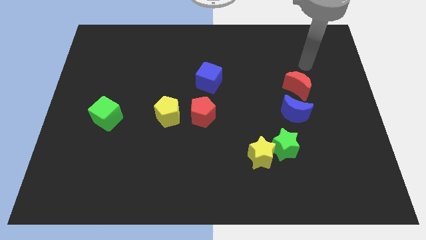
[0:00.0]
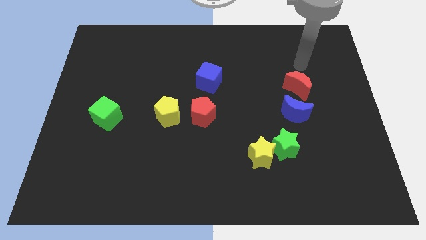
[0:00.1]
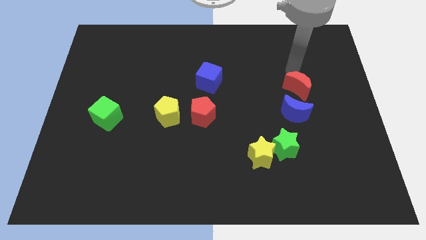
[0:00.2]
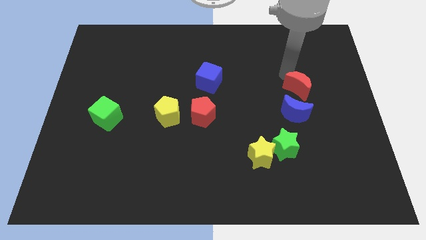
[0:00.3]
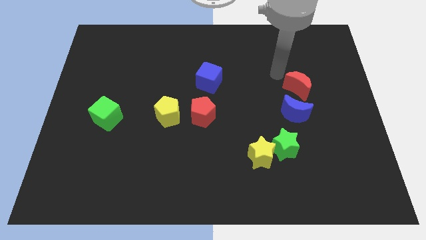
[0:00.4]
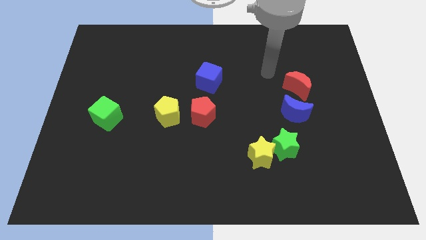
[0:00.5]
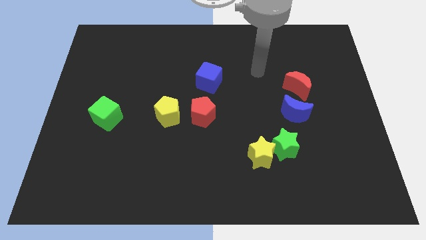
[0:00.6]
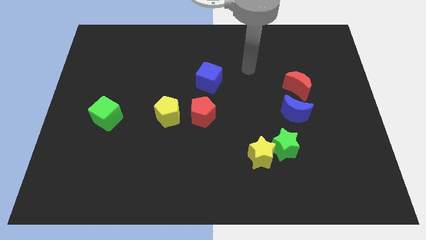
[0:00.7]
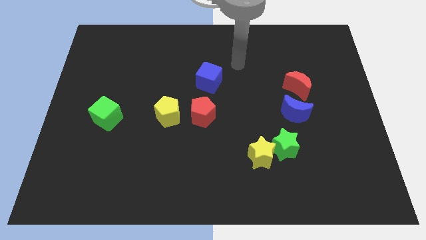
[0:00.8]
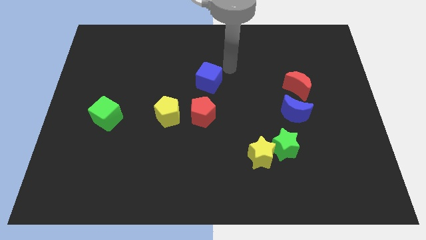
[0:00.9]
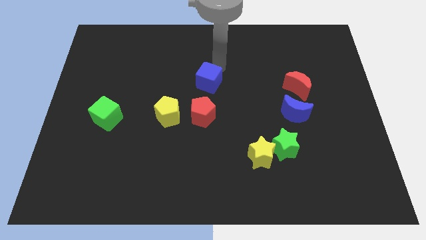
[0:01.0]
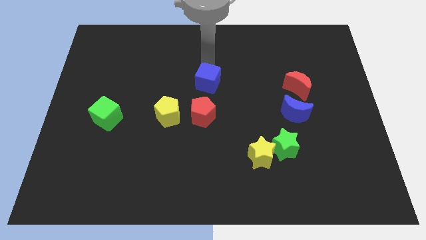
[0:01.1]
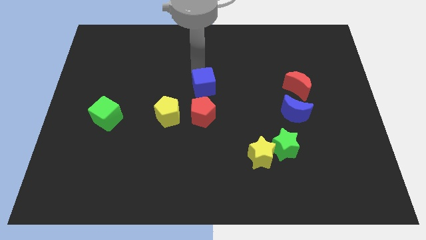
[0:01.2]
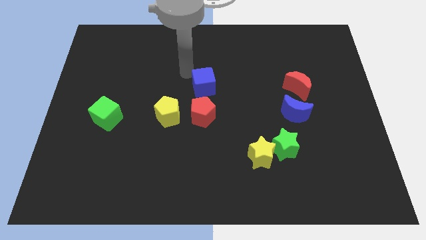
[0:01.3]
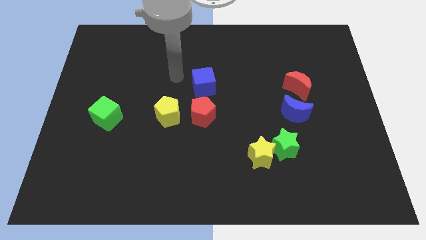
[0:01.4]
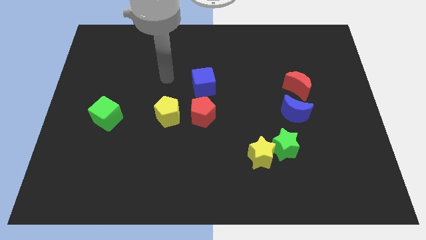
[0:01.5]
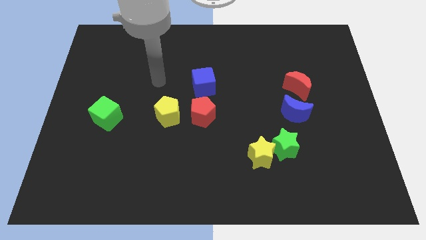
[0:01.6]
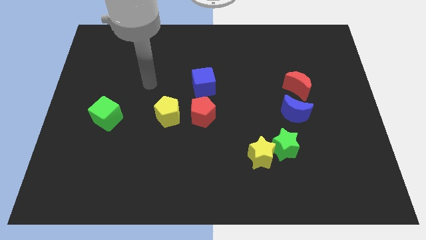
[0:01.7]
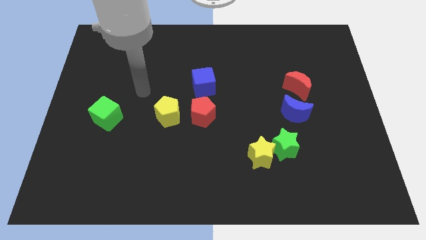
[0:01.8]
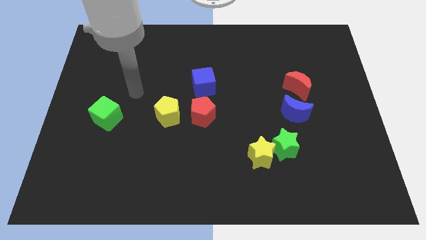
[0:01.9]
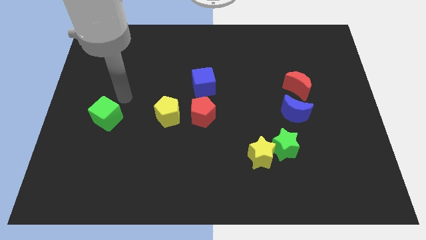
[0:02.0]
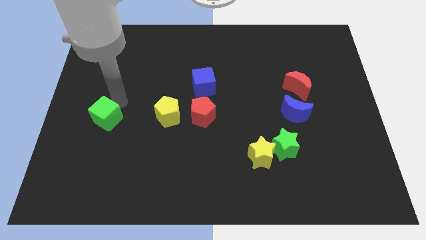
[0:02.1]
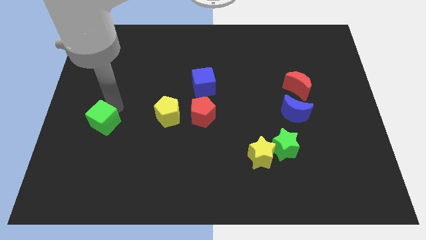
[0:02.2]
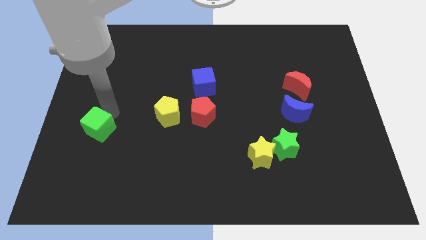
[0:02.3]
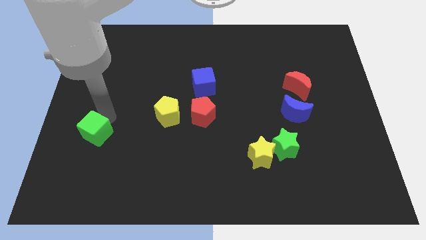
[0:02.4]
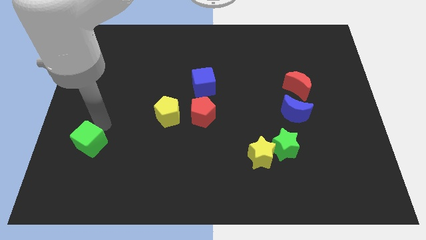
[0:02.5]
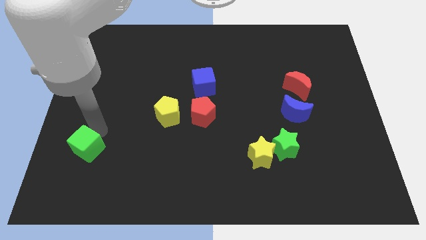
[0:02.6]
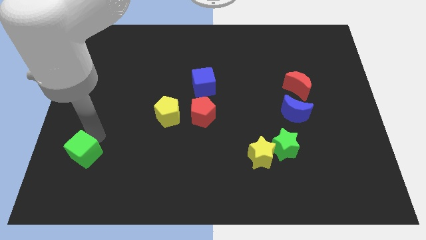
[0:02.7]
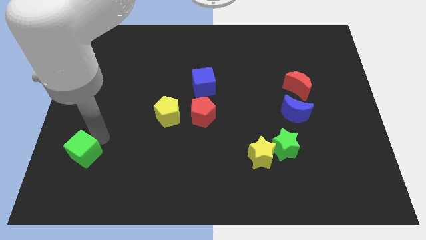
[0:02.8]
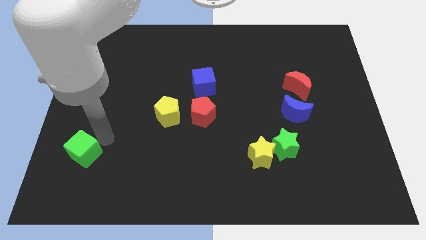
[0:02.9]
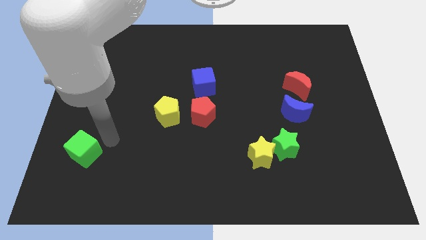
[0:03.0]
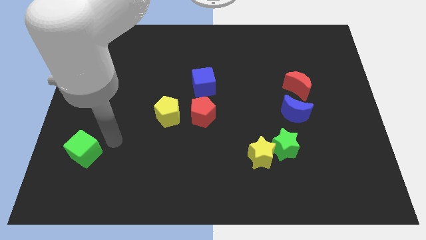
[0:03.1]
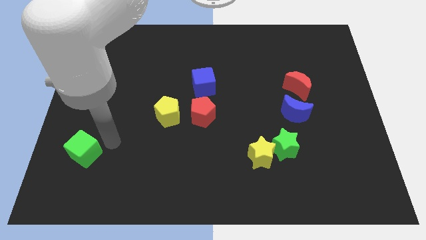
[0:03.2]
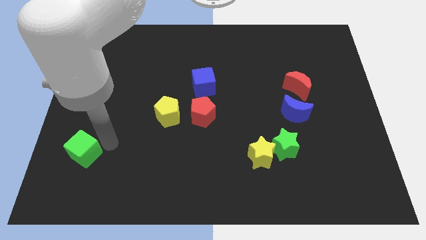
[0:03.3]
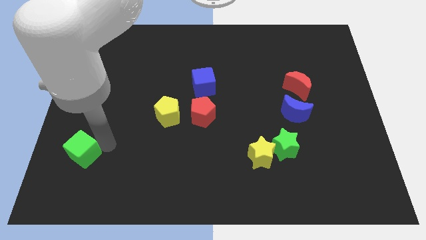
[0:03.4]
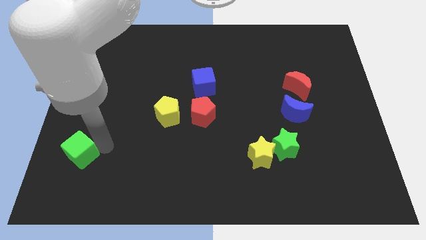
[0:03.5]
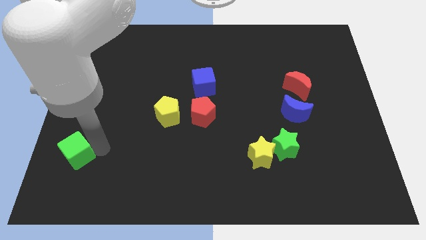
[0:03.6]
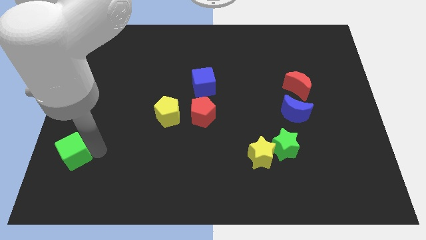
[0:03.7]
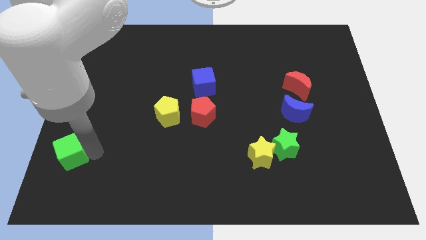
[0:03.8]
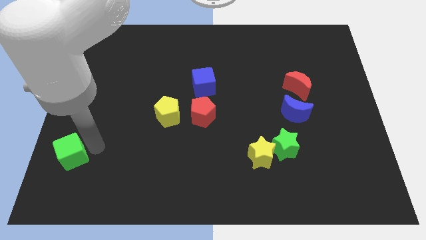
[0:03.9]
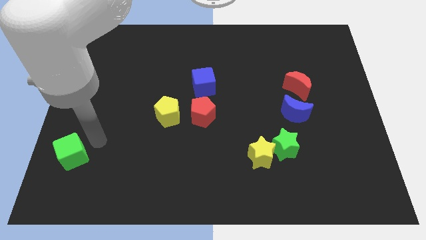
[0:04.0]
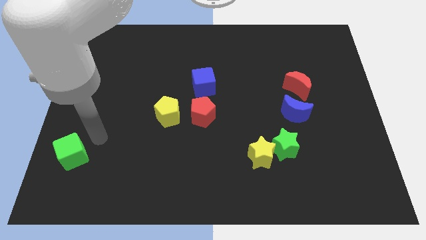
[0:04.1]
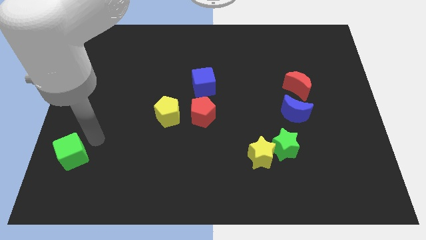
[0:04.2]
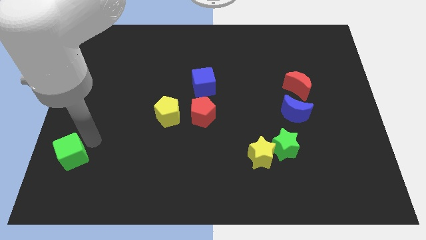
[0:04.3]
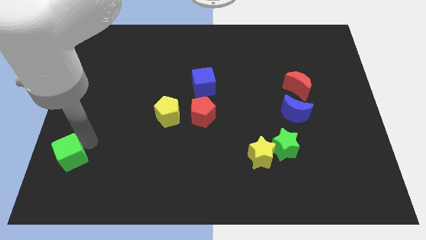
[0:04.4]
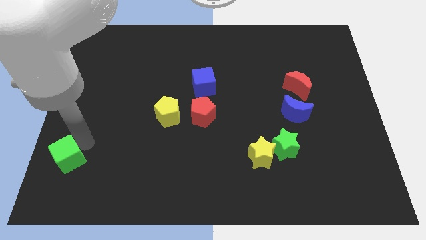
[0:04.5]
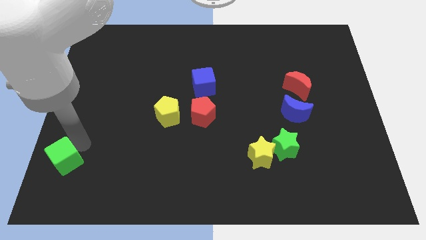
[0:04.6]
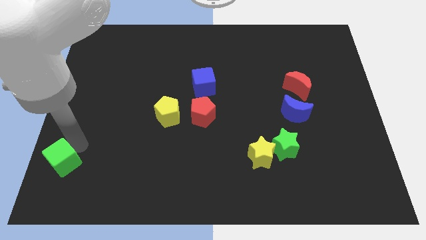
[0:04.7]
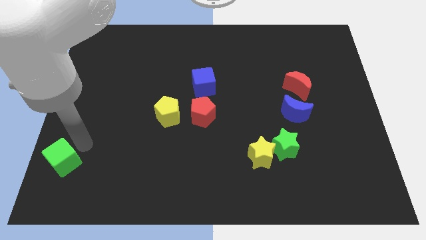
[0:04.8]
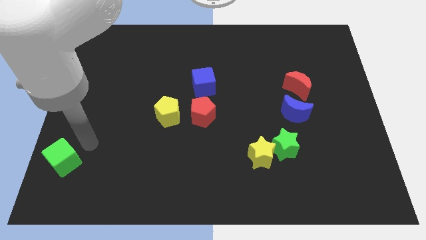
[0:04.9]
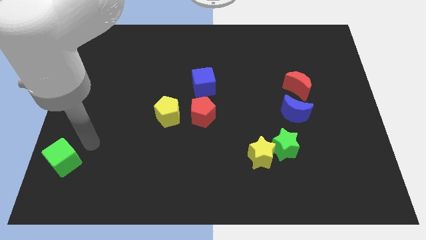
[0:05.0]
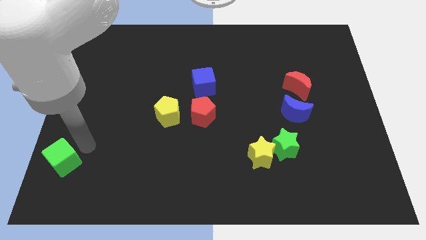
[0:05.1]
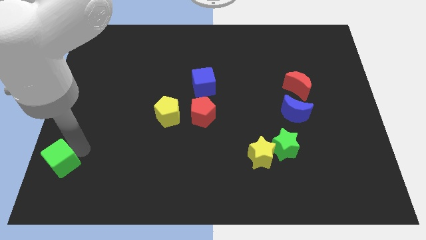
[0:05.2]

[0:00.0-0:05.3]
slide the green cube to the lower left corner
